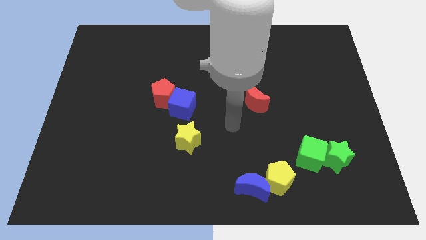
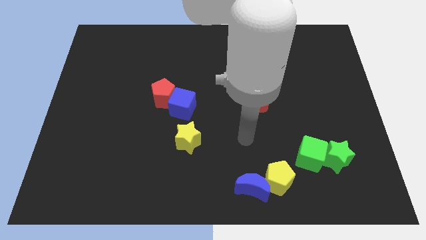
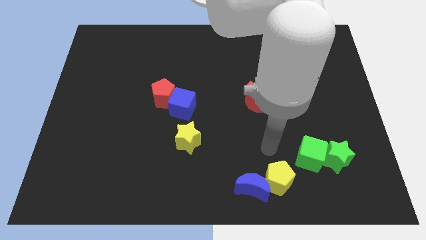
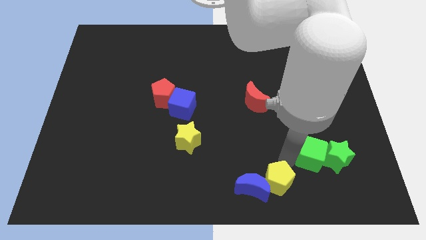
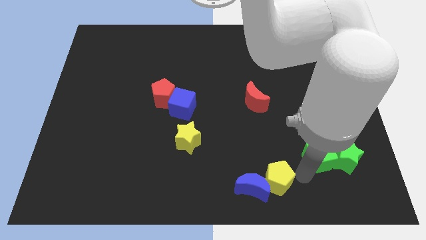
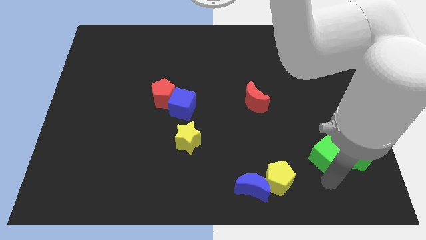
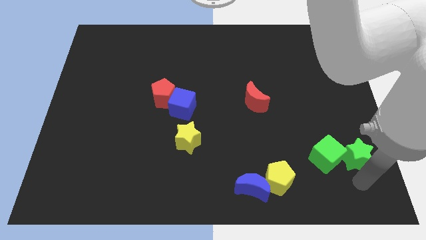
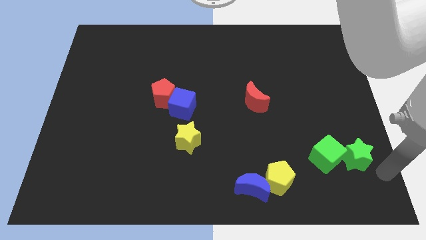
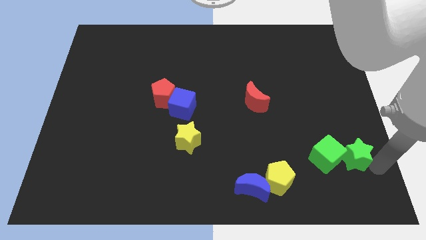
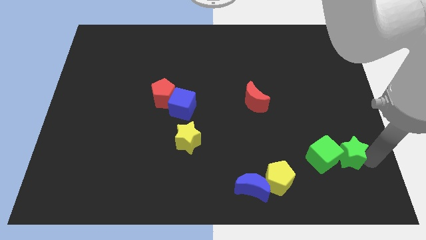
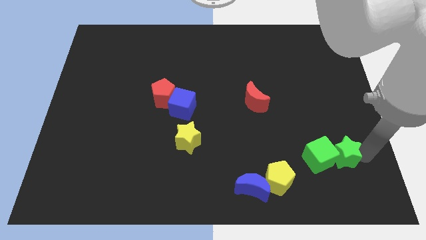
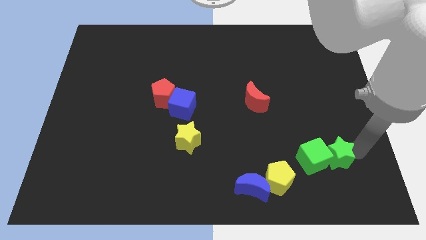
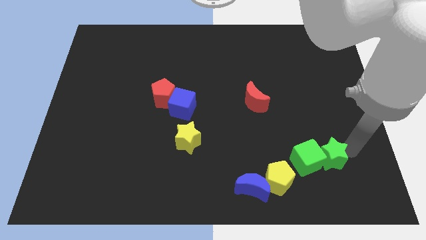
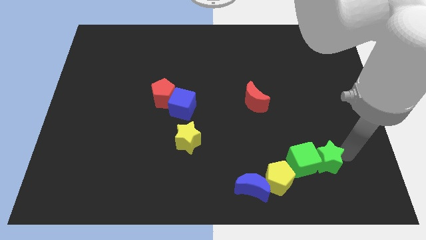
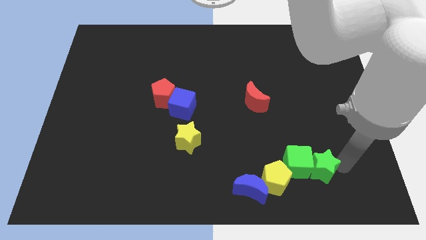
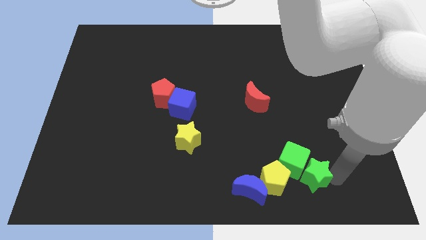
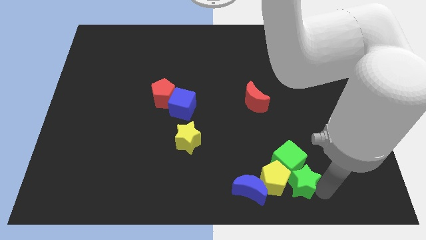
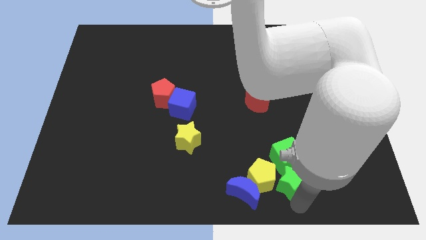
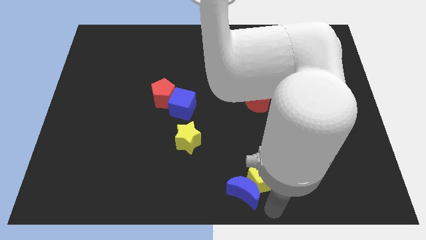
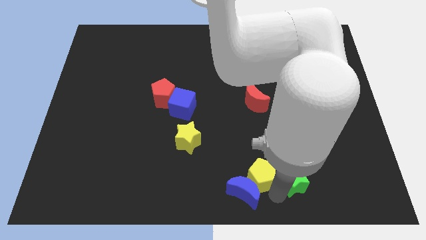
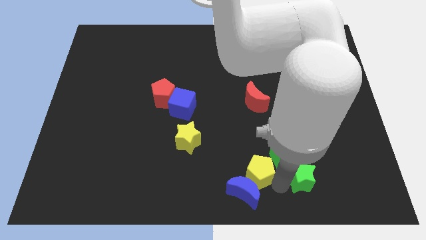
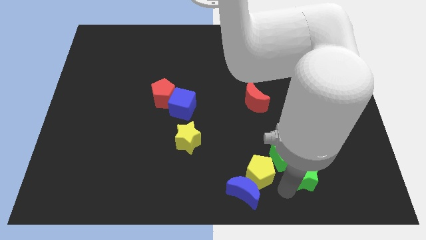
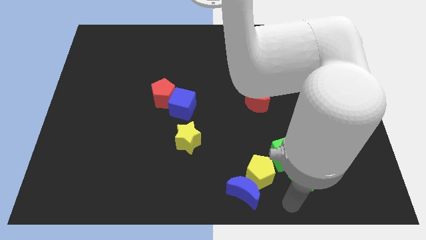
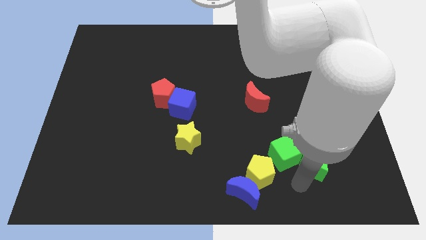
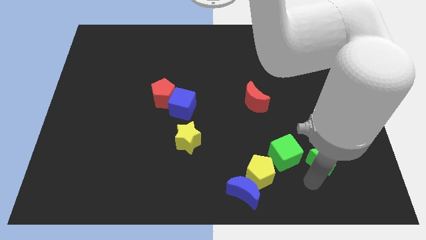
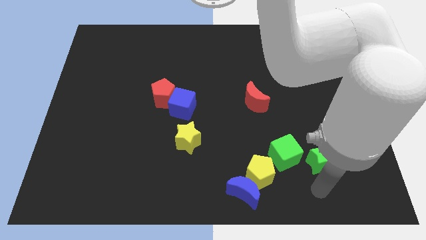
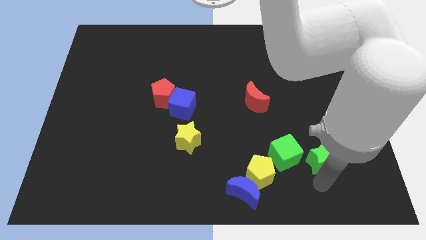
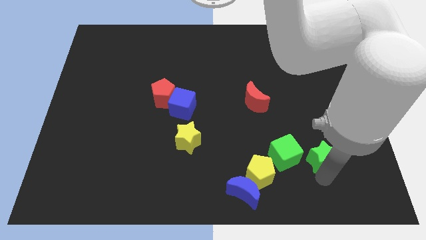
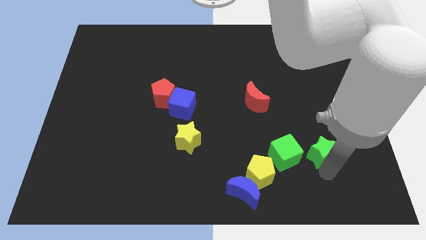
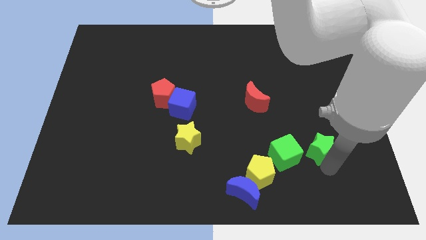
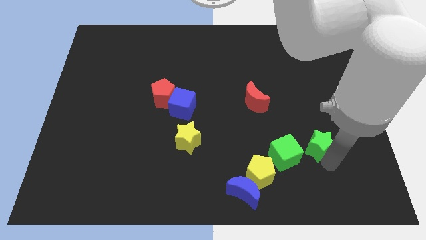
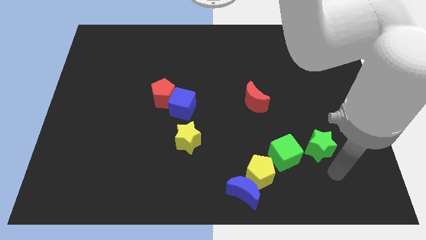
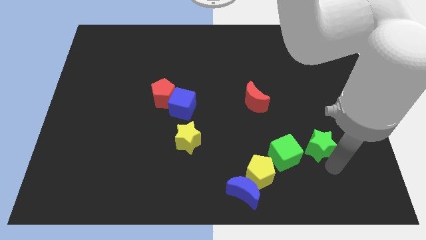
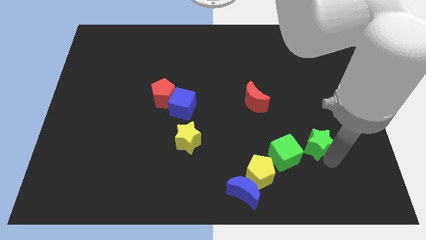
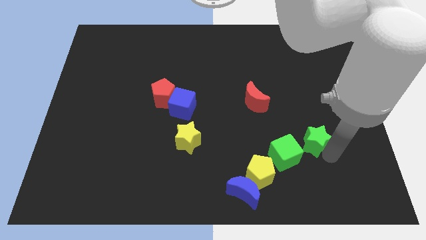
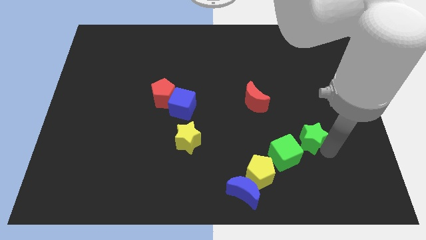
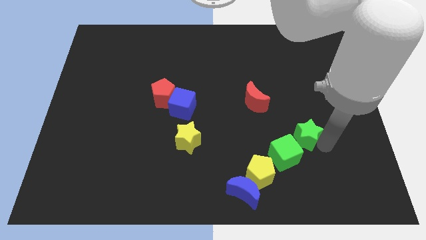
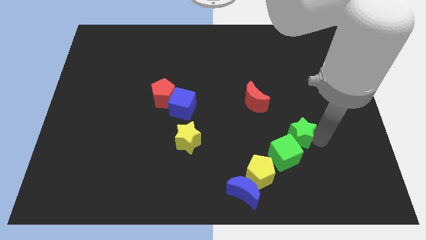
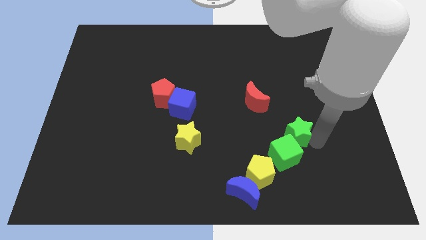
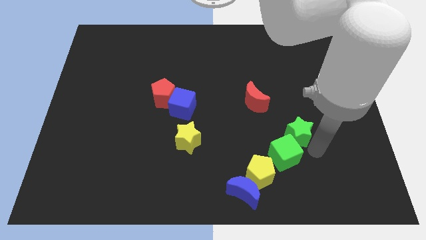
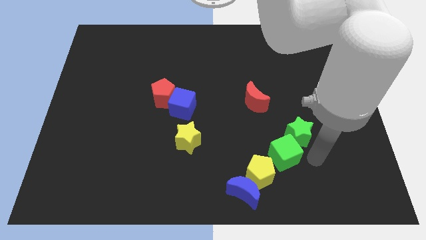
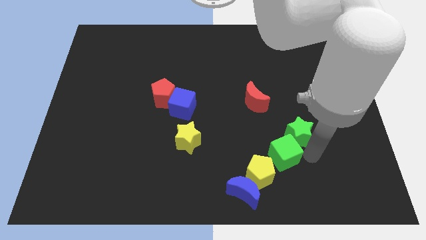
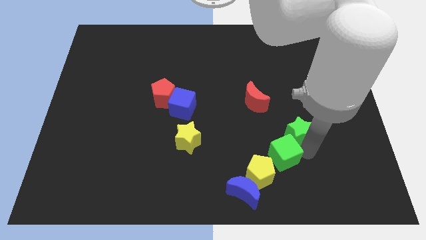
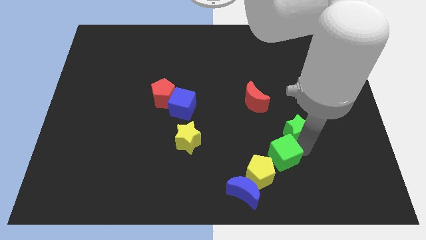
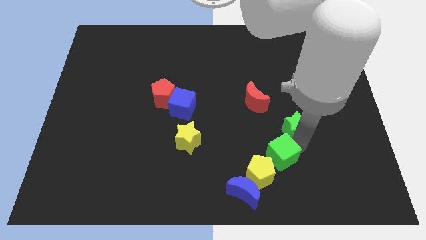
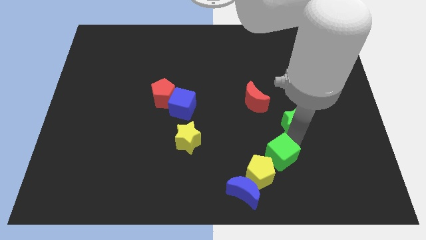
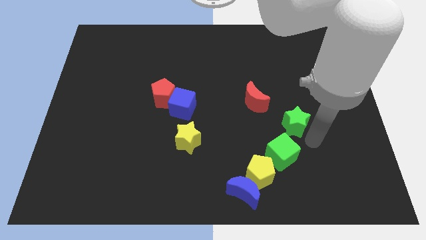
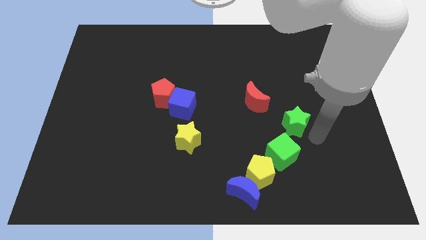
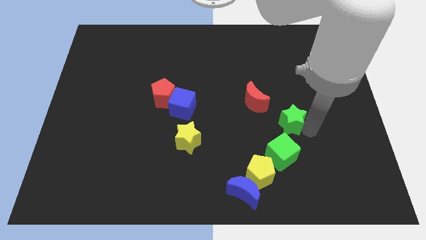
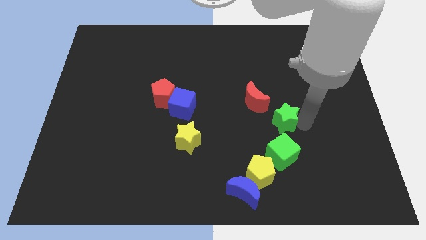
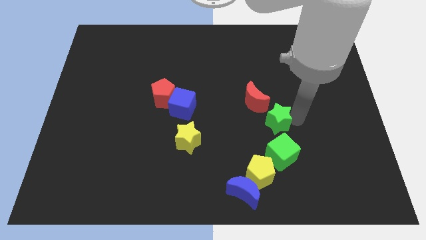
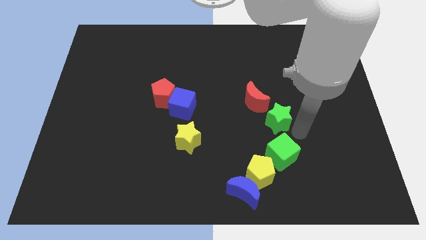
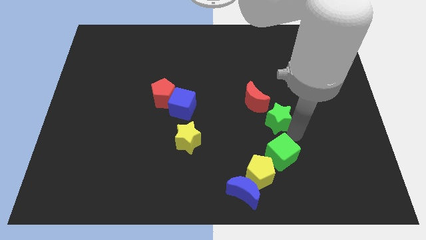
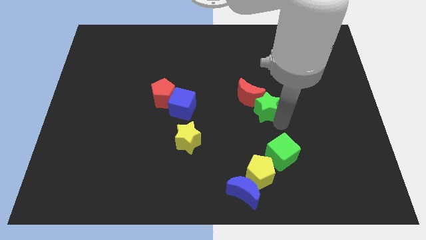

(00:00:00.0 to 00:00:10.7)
push the green star close to the red moon

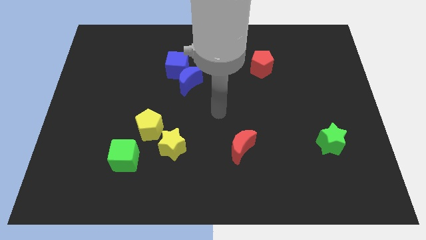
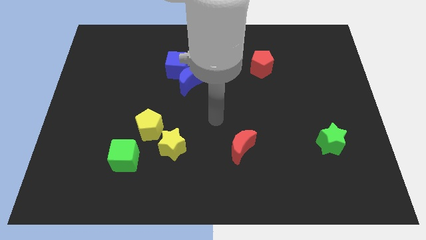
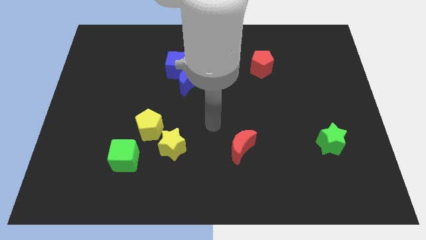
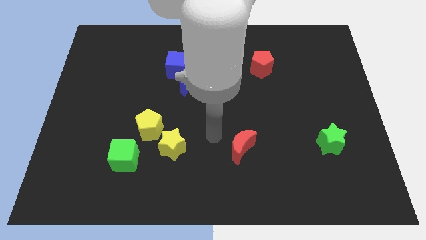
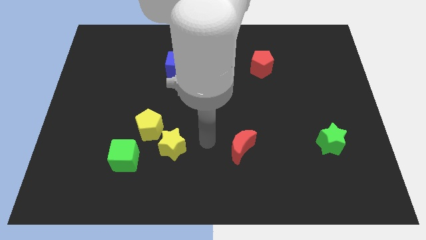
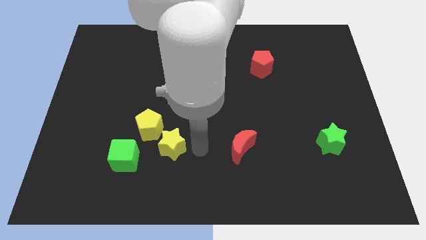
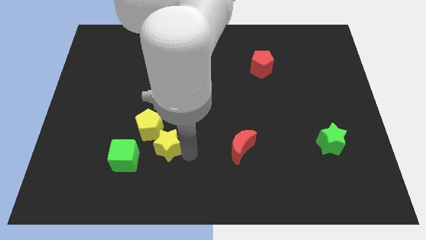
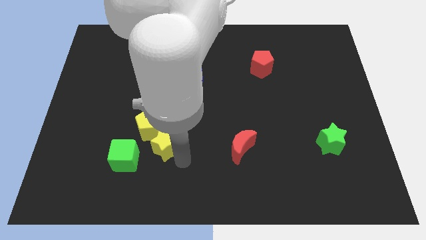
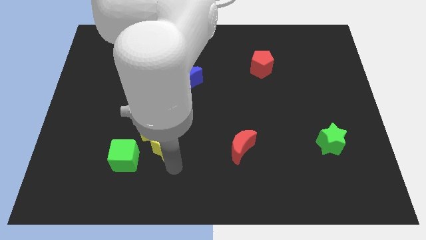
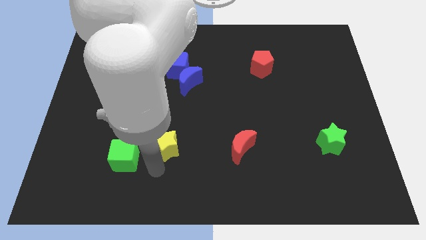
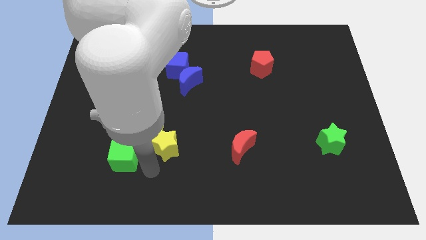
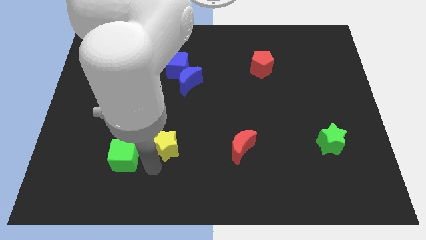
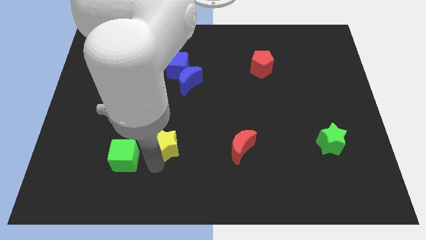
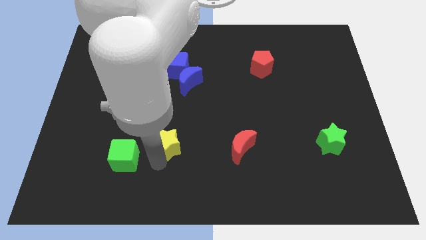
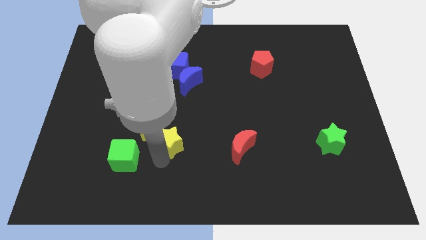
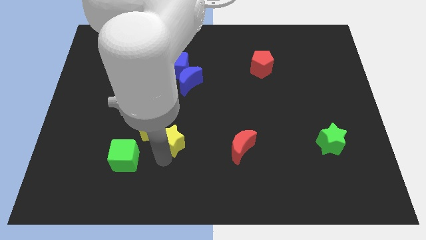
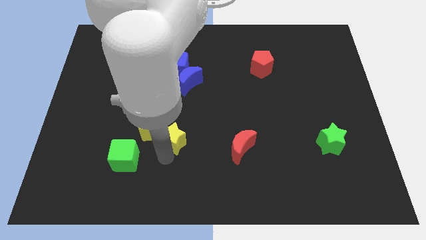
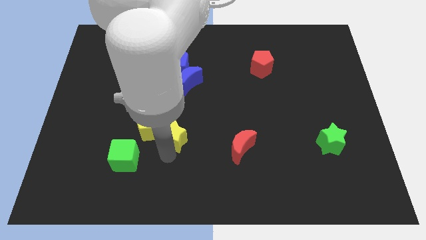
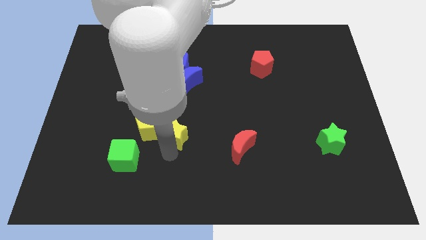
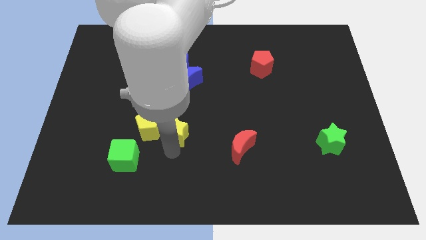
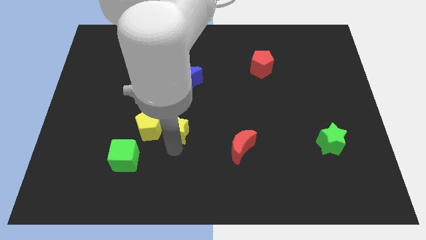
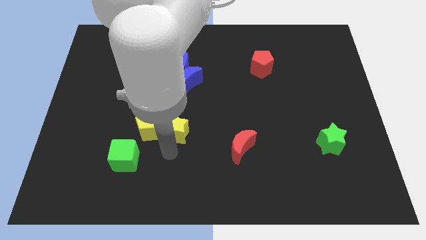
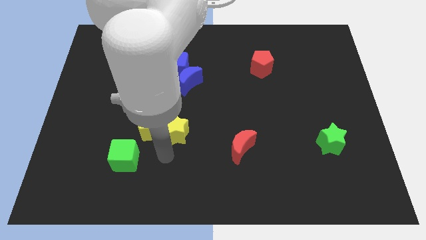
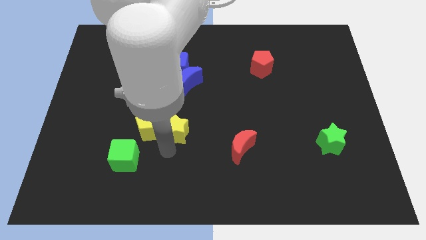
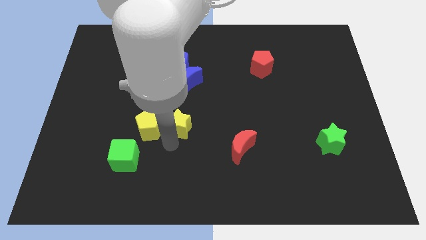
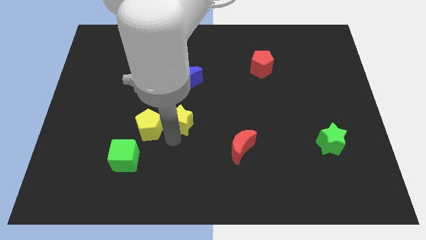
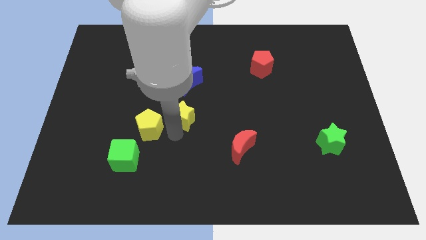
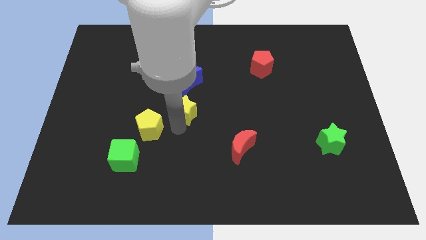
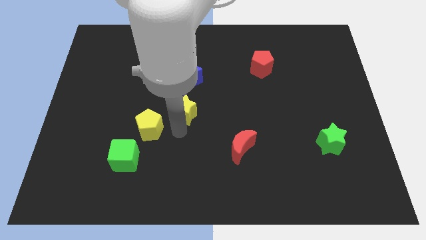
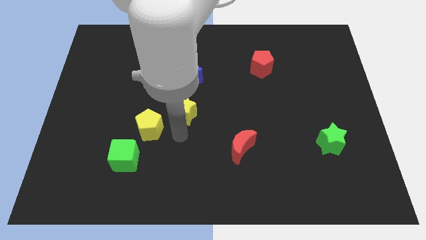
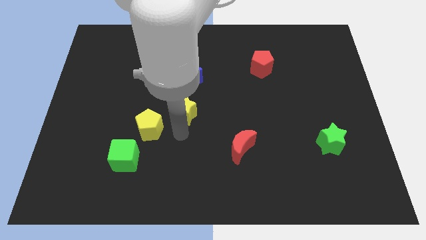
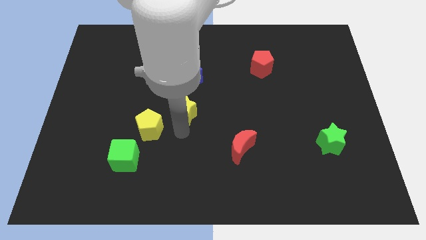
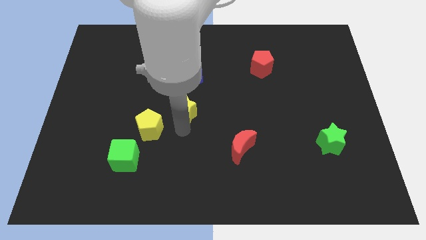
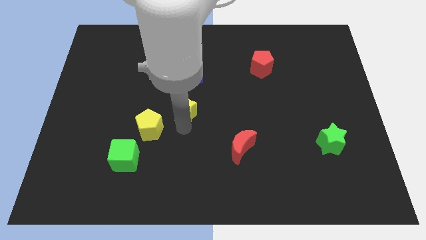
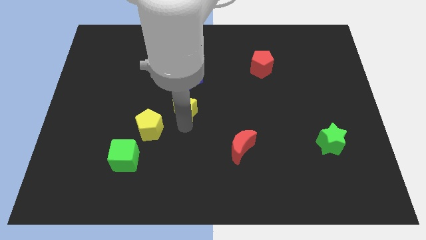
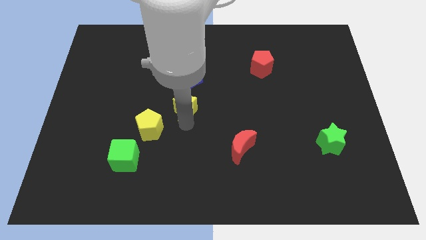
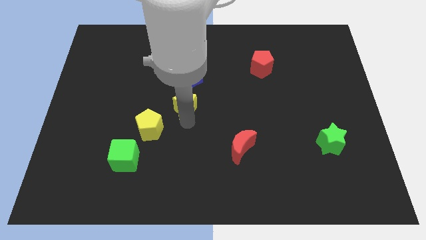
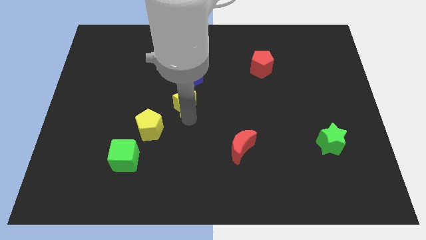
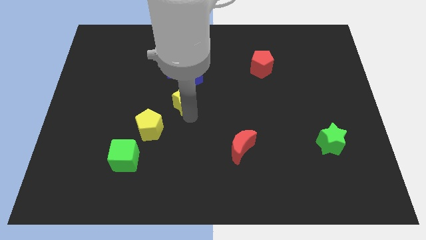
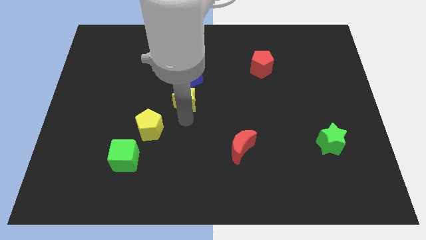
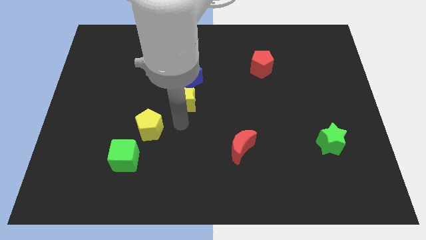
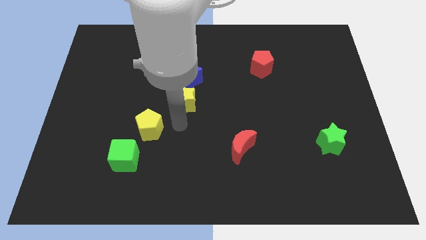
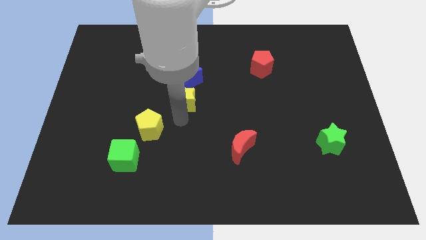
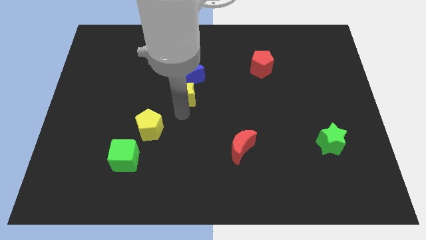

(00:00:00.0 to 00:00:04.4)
put the yellow star towards the blue moon
